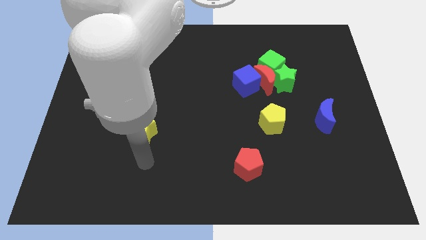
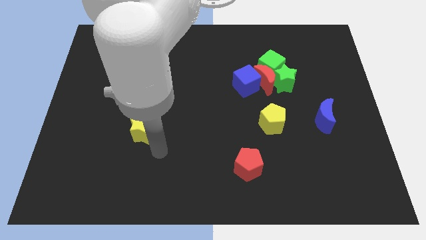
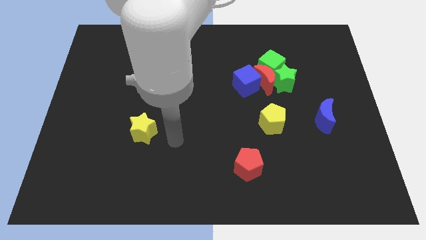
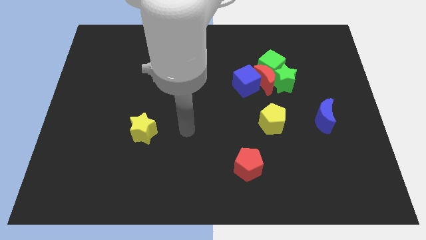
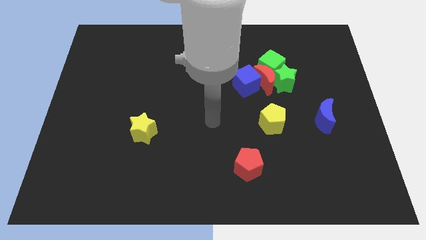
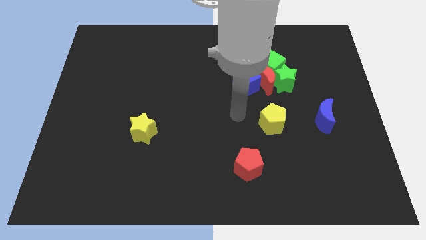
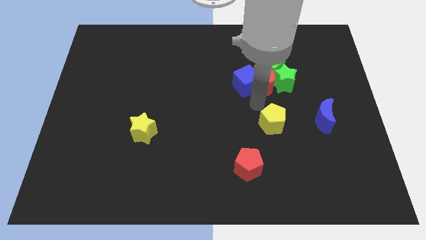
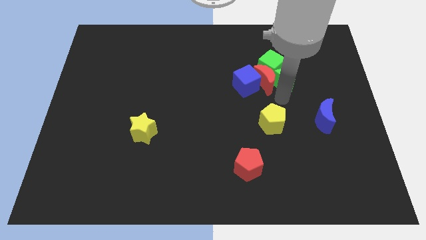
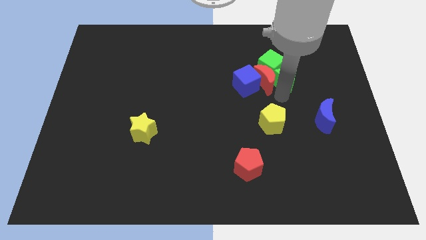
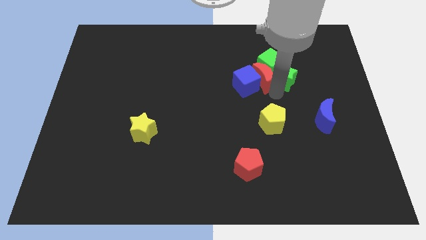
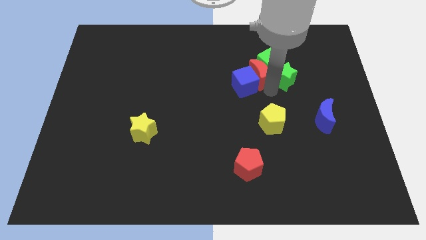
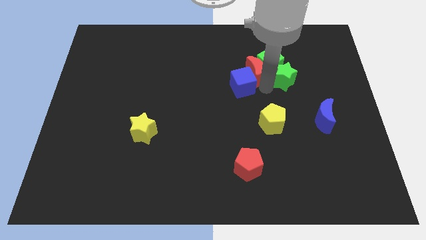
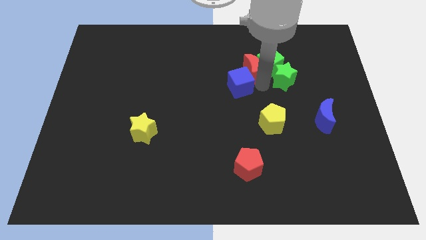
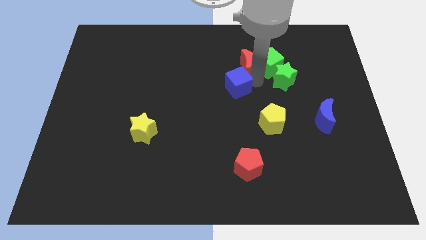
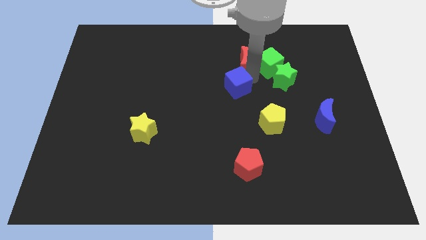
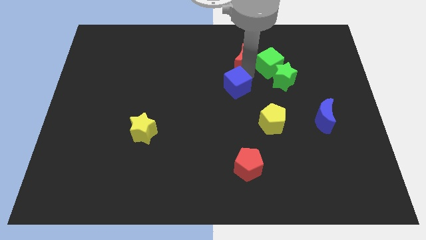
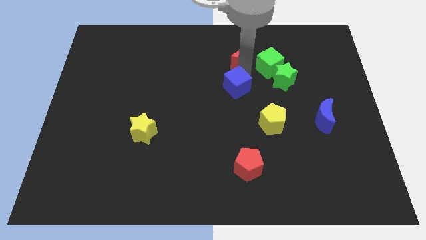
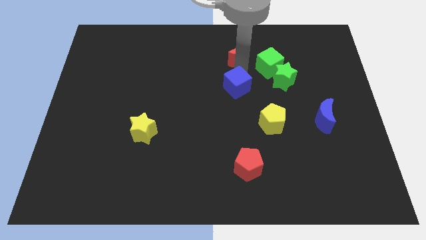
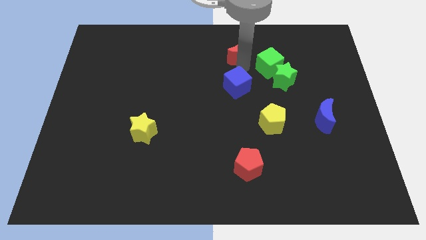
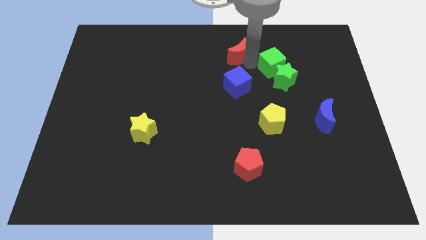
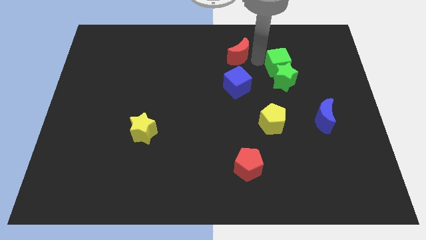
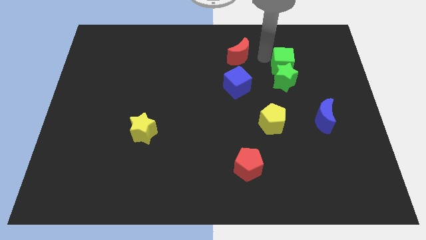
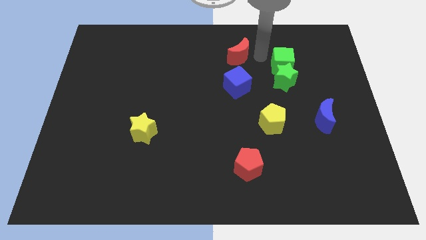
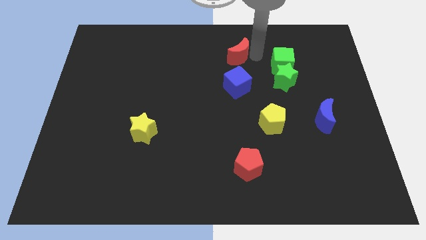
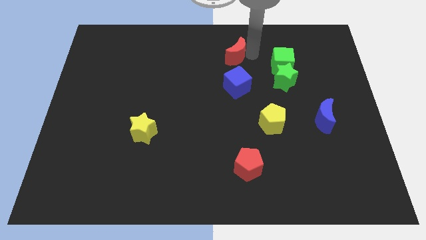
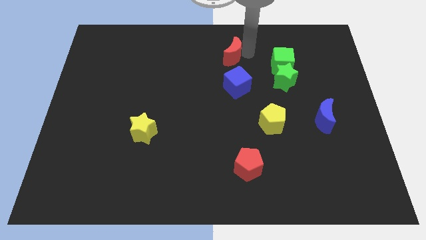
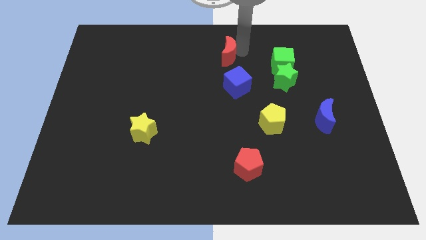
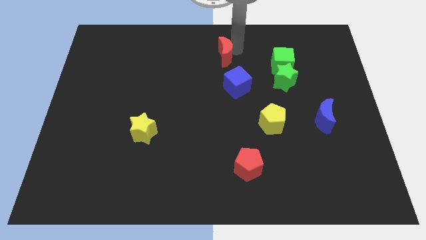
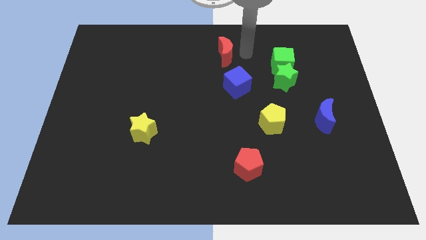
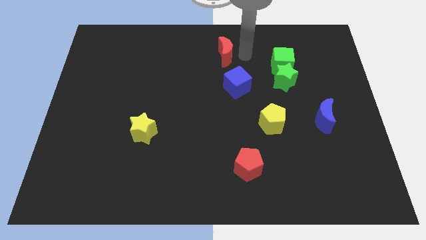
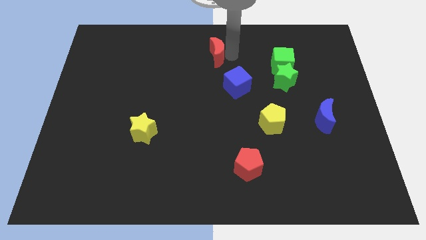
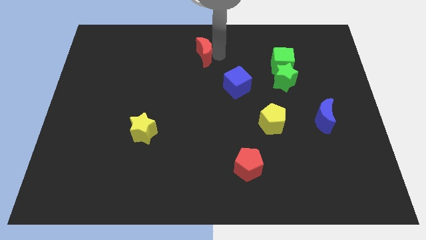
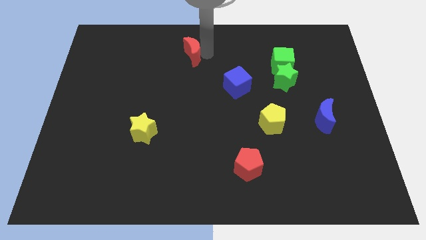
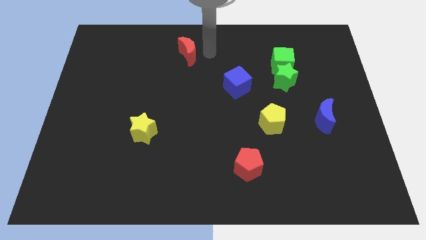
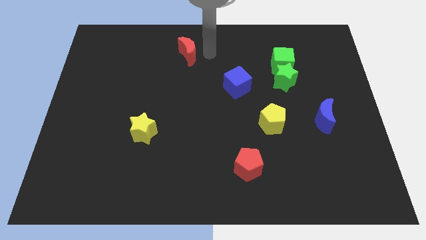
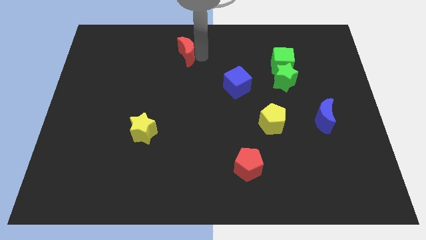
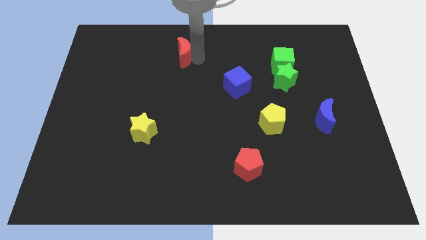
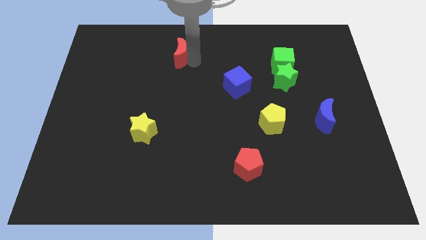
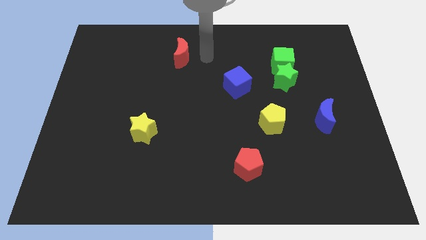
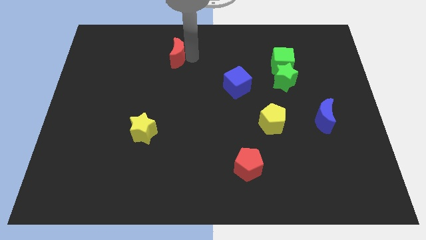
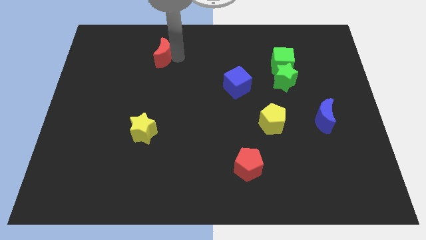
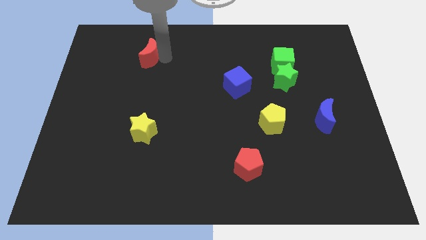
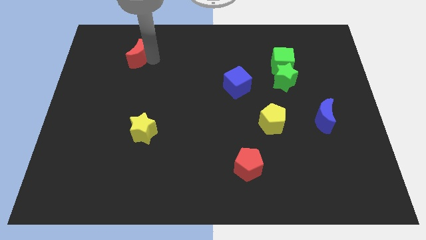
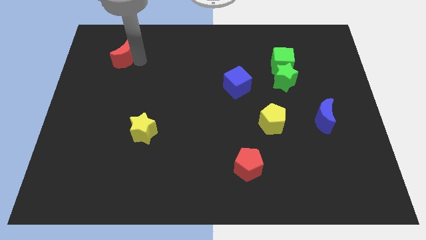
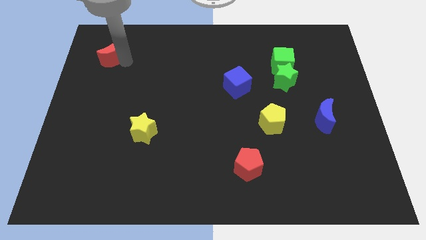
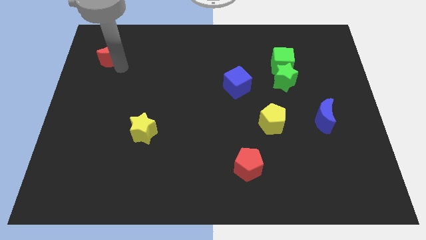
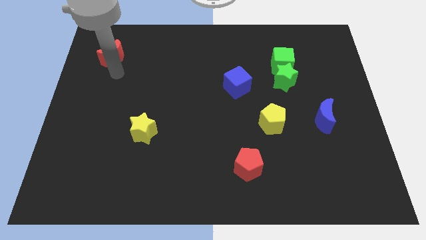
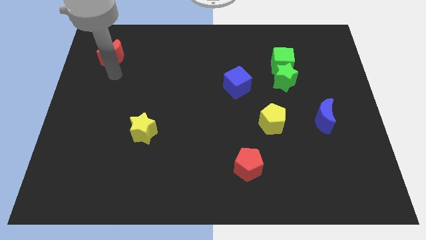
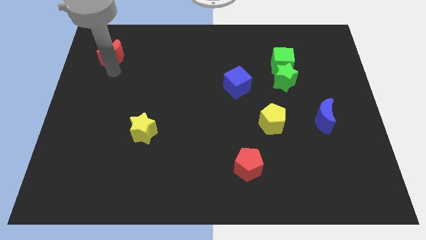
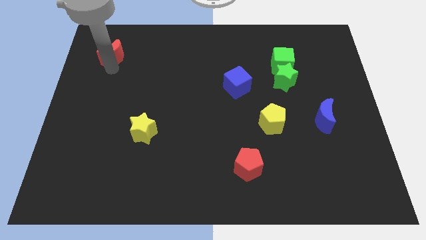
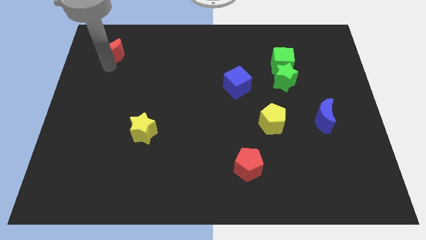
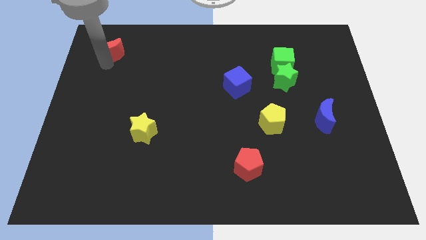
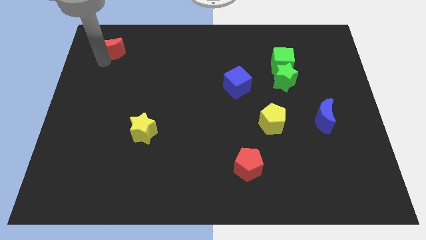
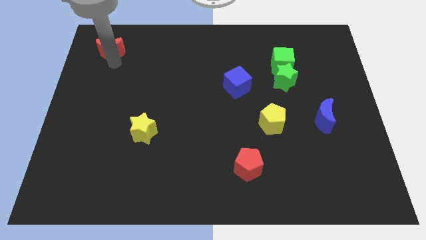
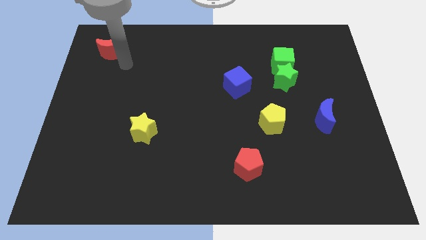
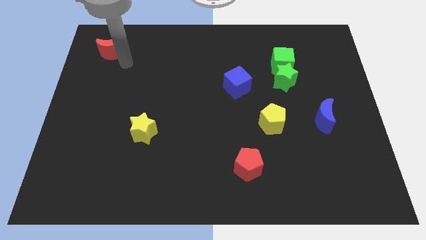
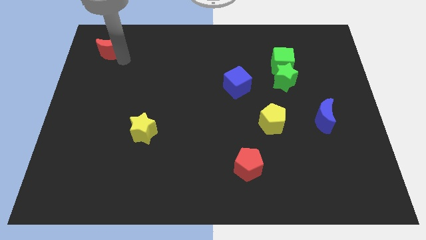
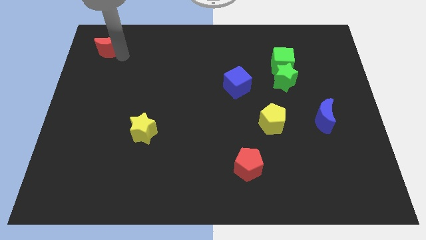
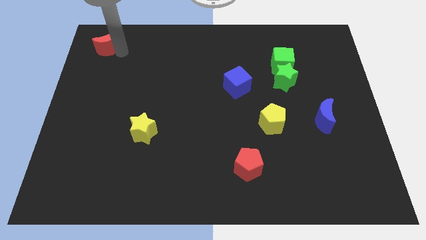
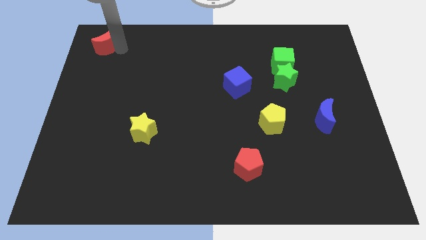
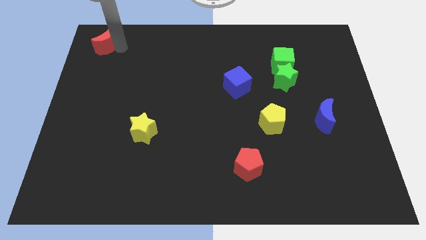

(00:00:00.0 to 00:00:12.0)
slide the red moon to the top left corner

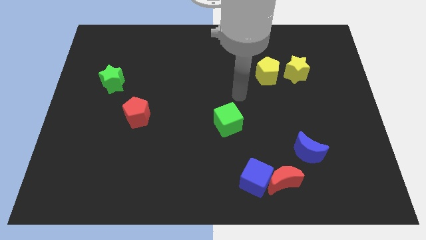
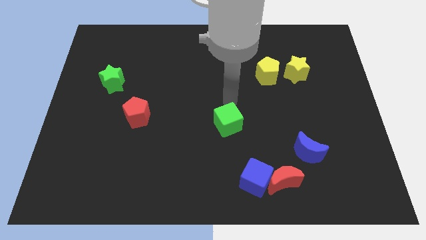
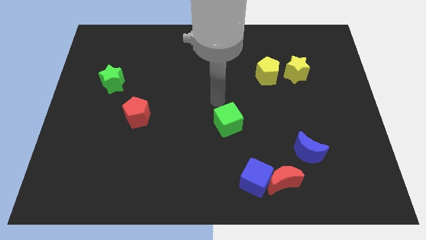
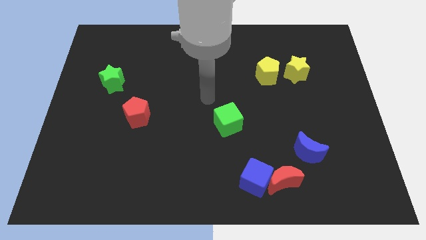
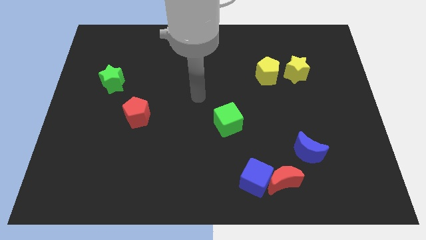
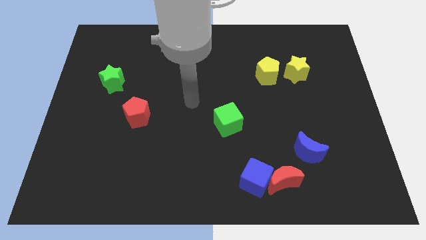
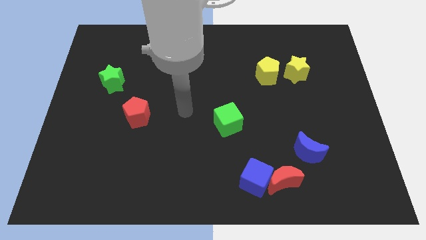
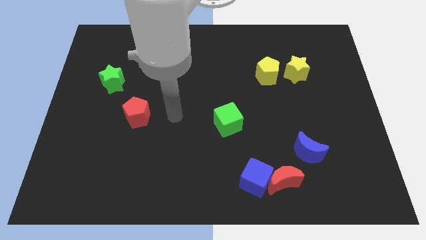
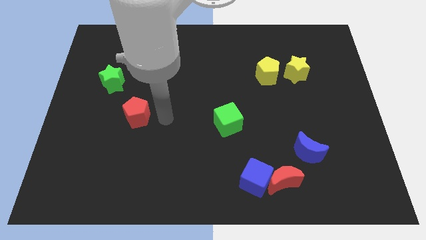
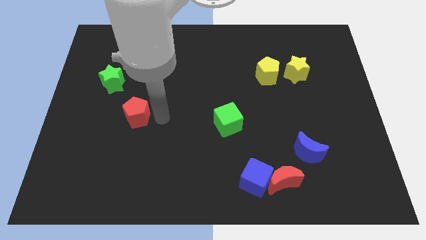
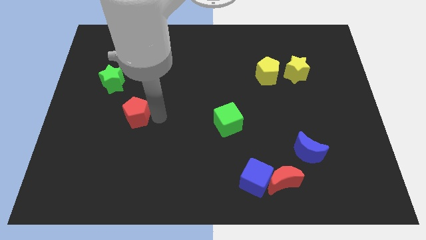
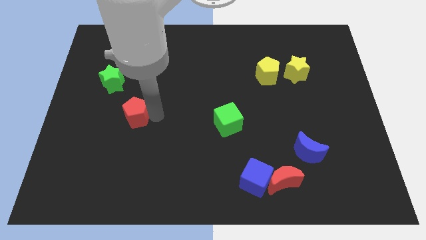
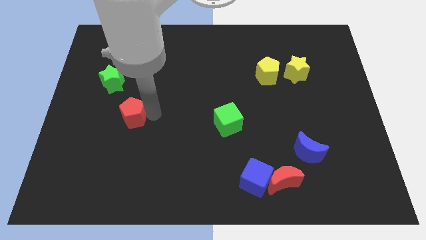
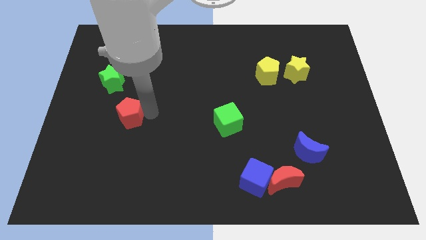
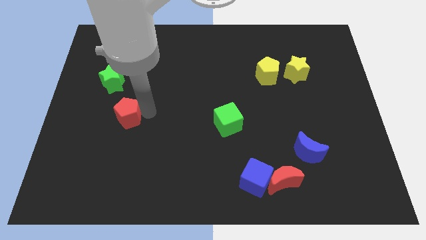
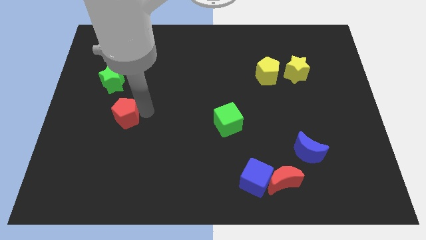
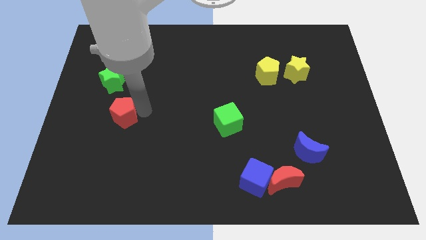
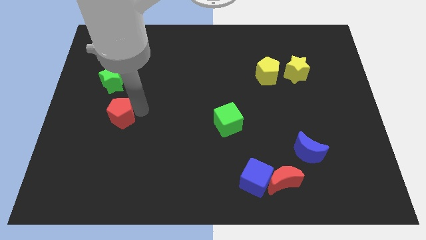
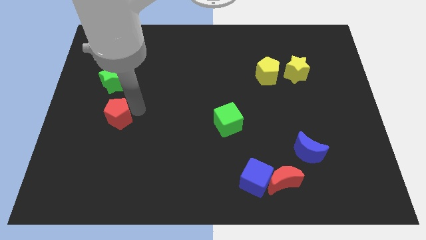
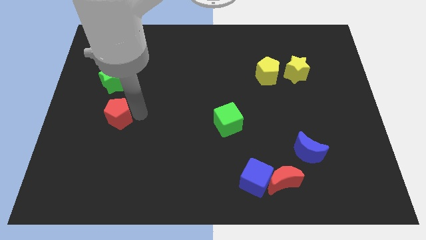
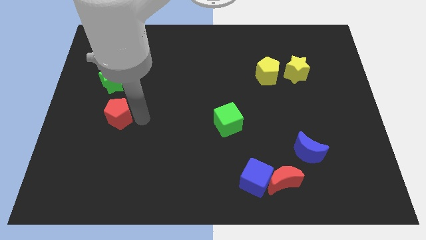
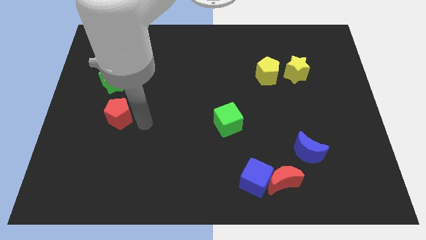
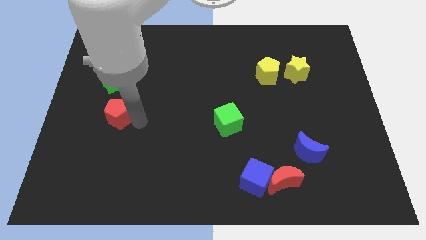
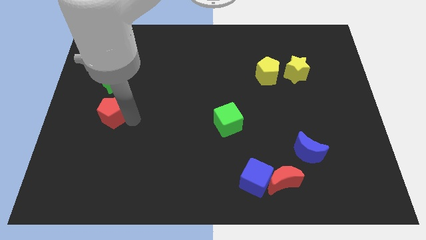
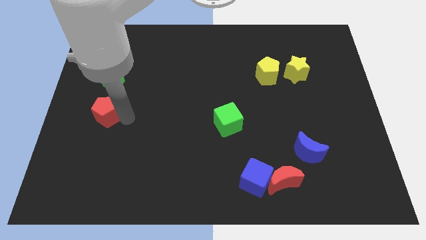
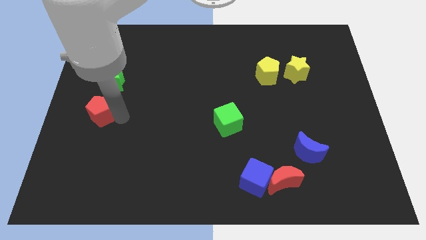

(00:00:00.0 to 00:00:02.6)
slide the red pentagon to the left side
